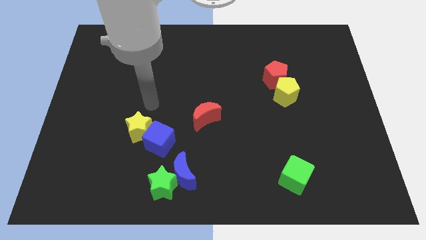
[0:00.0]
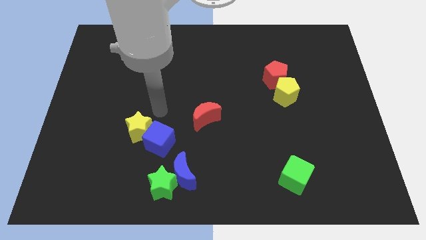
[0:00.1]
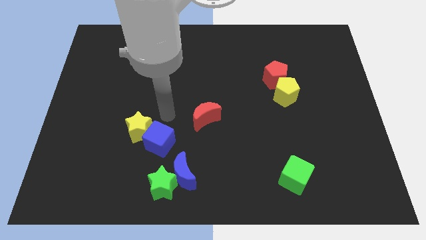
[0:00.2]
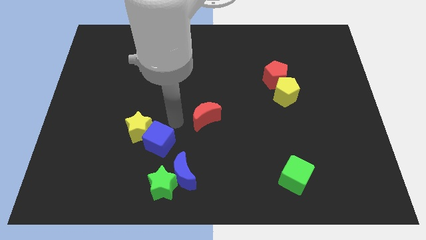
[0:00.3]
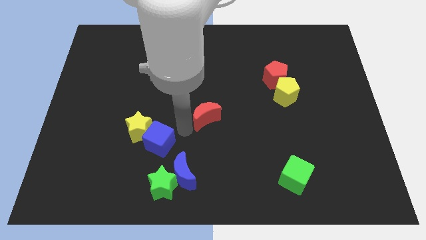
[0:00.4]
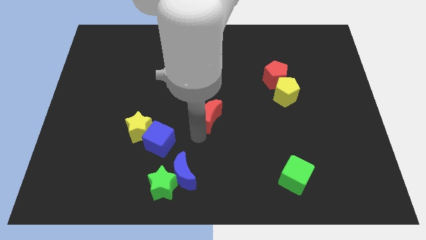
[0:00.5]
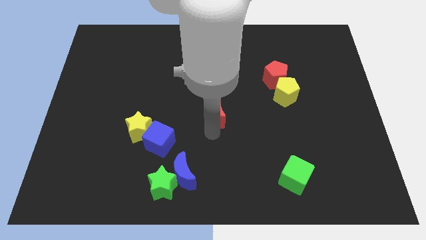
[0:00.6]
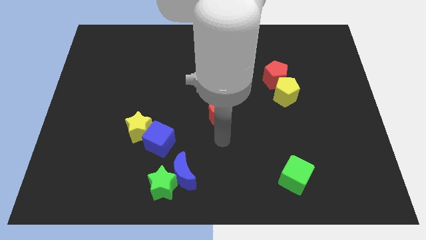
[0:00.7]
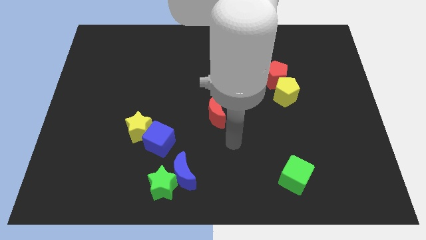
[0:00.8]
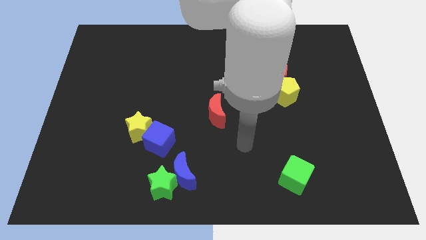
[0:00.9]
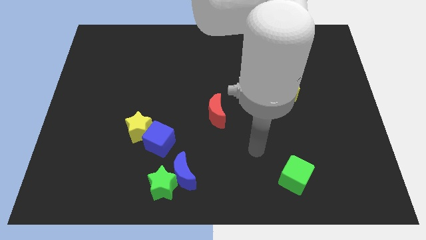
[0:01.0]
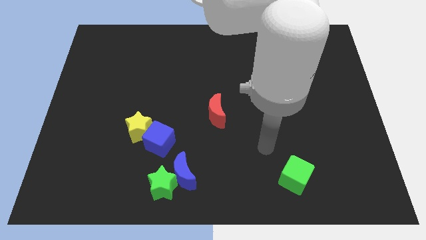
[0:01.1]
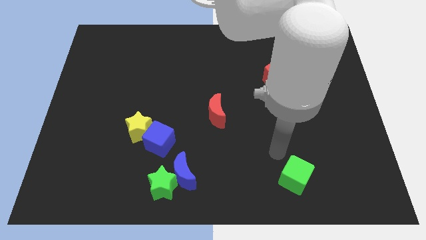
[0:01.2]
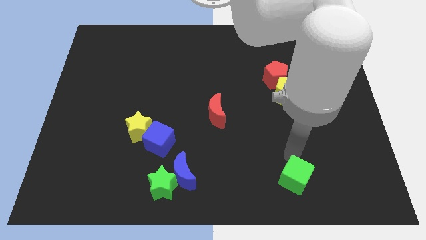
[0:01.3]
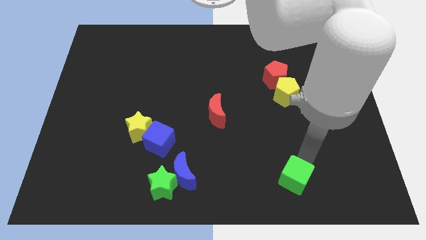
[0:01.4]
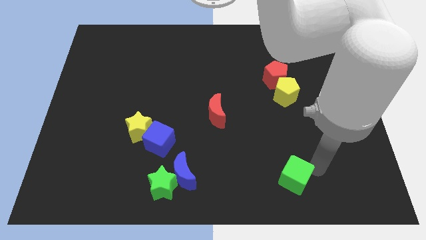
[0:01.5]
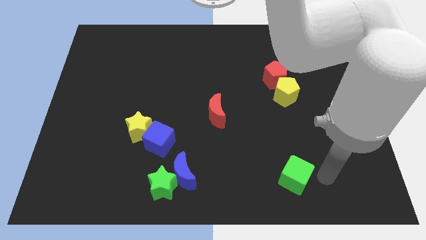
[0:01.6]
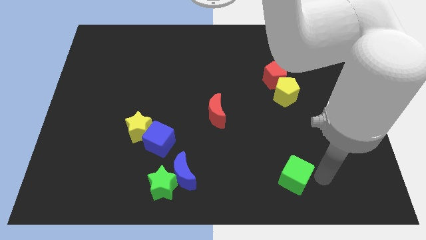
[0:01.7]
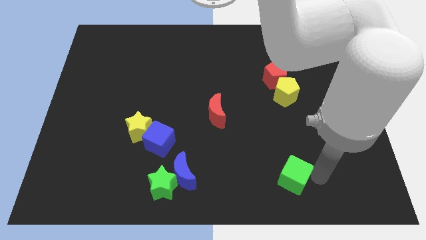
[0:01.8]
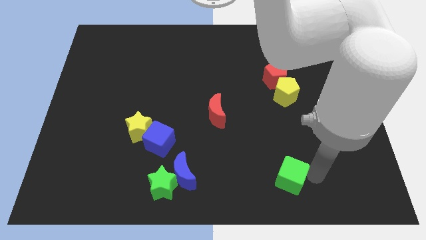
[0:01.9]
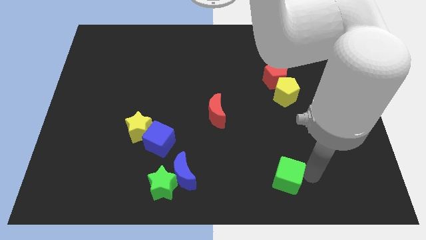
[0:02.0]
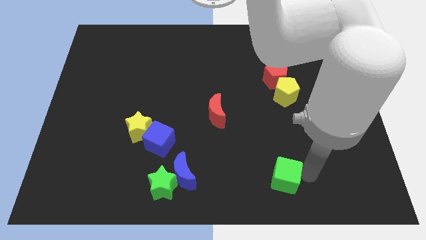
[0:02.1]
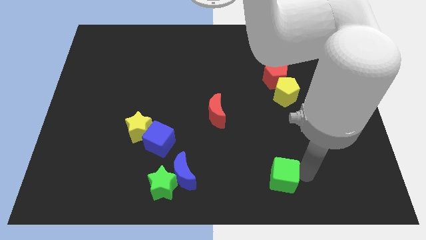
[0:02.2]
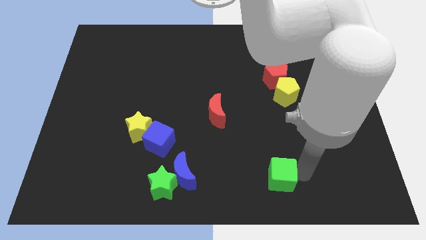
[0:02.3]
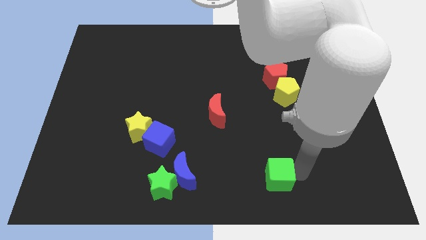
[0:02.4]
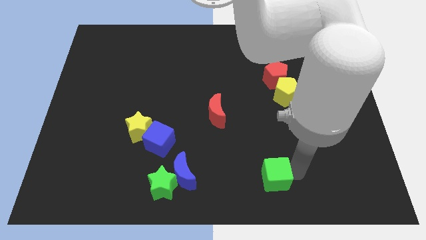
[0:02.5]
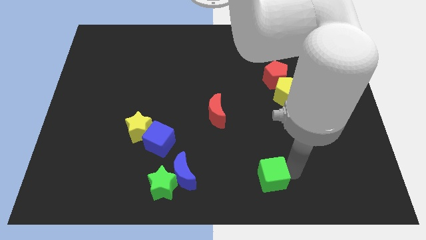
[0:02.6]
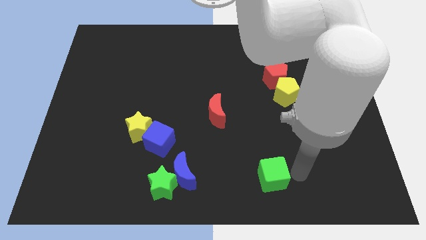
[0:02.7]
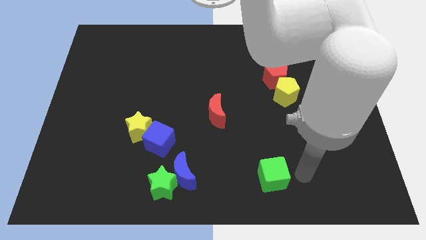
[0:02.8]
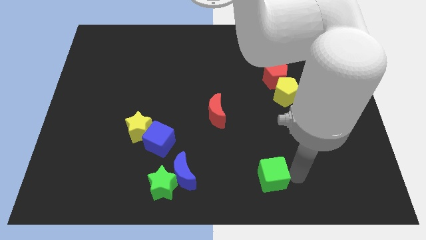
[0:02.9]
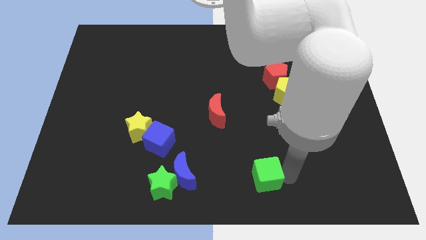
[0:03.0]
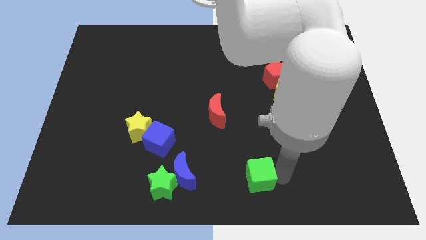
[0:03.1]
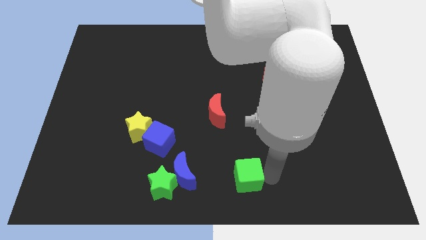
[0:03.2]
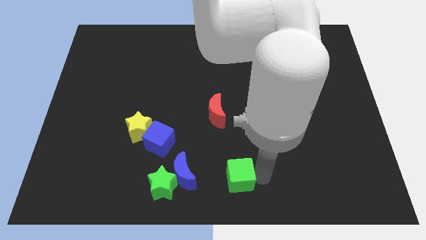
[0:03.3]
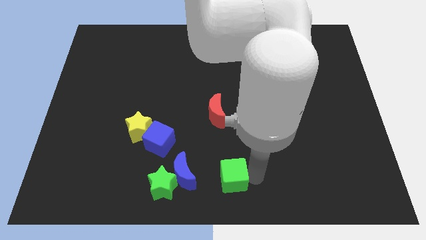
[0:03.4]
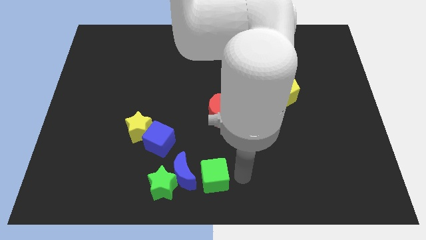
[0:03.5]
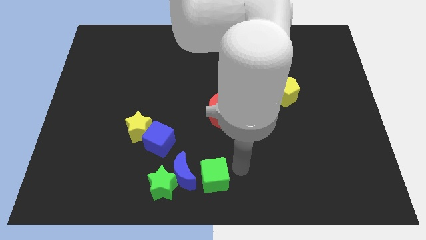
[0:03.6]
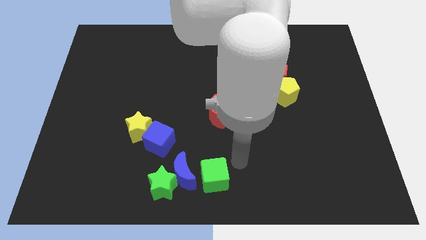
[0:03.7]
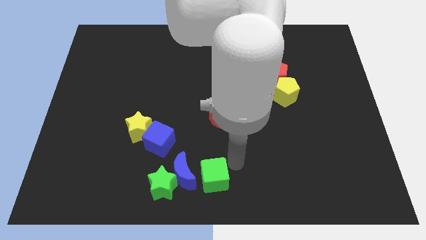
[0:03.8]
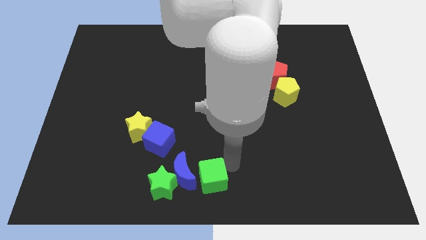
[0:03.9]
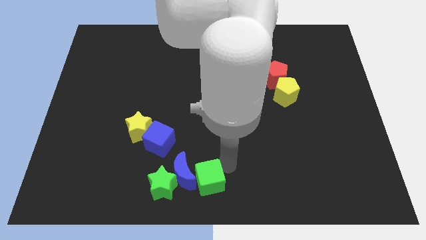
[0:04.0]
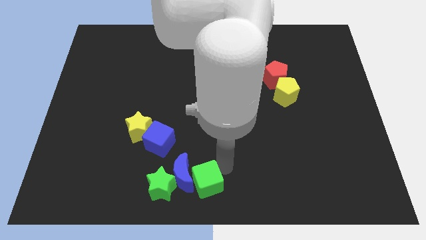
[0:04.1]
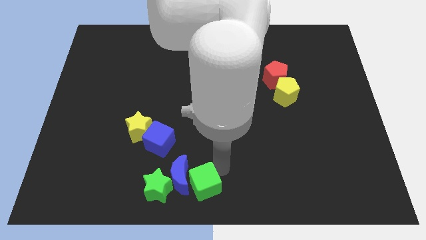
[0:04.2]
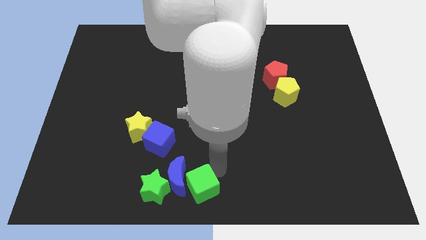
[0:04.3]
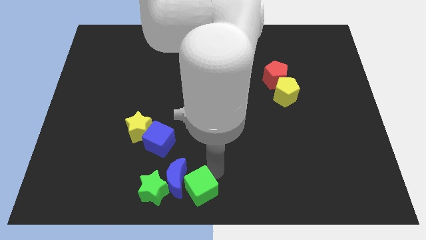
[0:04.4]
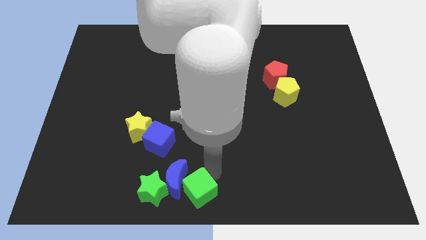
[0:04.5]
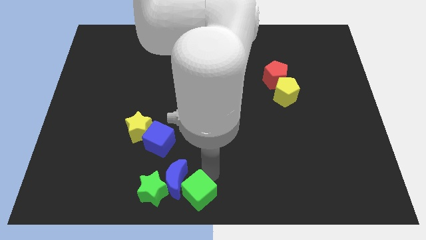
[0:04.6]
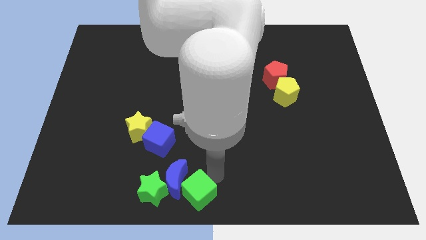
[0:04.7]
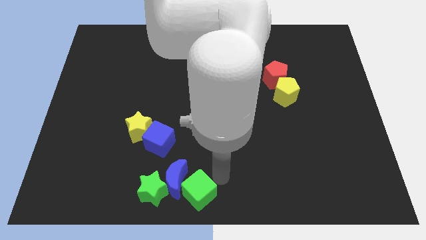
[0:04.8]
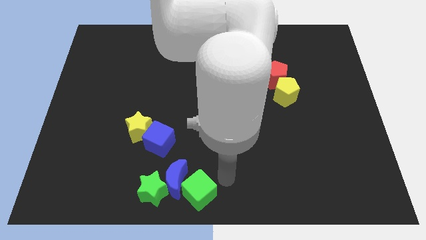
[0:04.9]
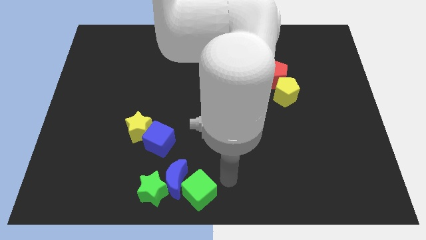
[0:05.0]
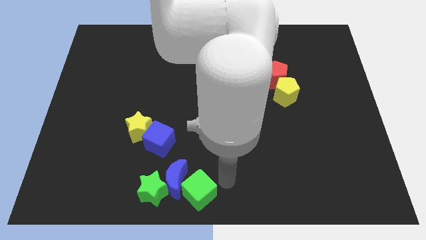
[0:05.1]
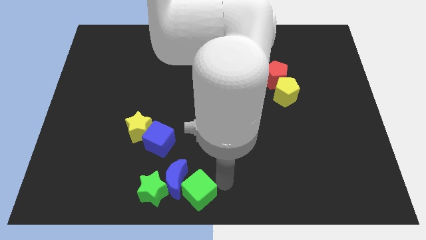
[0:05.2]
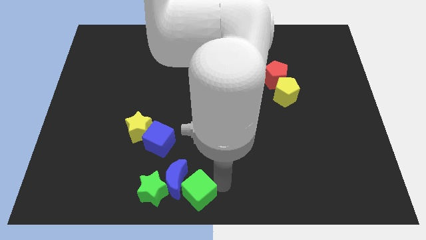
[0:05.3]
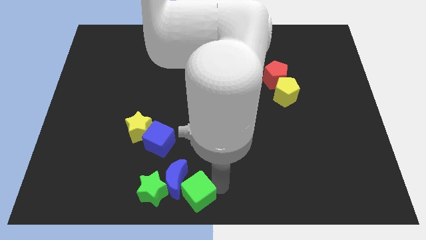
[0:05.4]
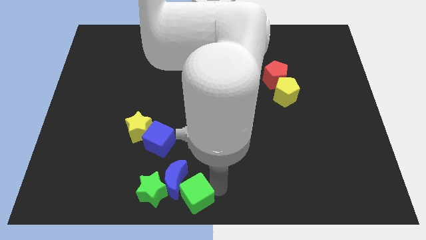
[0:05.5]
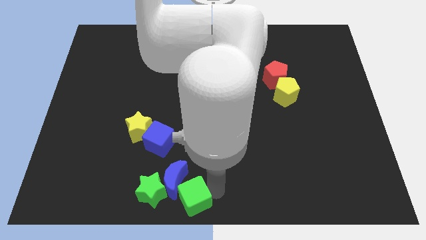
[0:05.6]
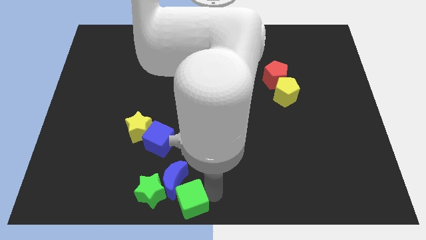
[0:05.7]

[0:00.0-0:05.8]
slide the green cube left

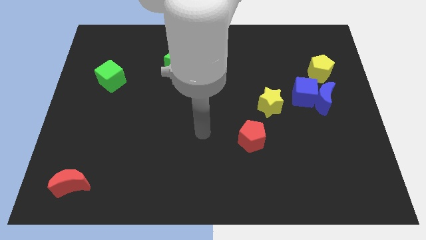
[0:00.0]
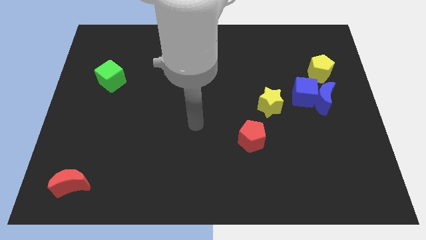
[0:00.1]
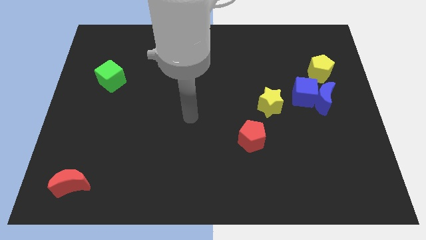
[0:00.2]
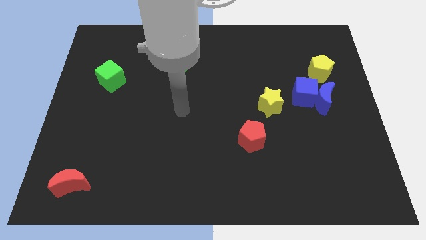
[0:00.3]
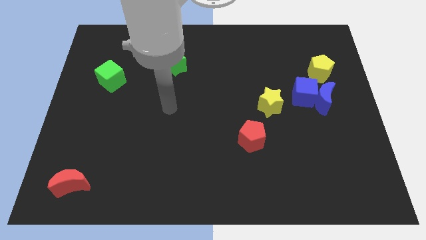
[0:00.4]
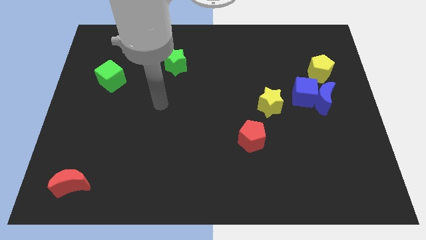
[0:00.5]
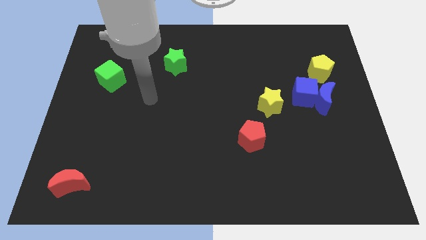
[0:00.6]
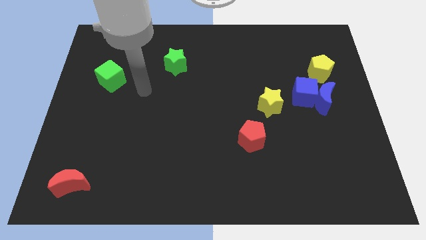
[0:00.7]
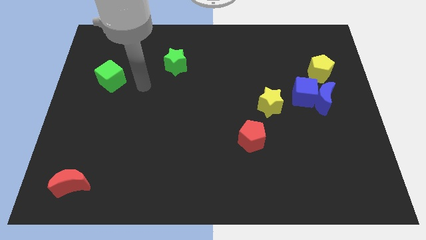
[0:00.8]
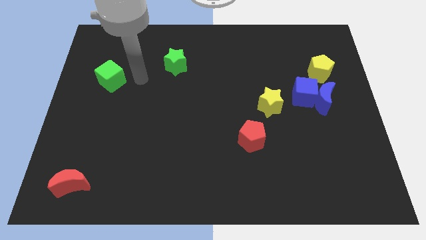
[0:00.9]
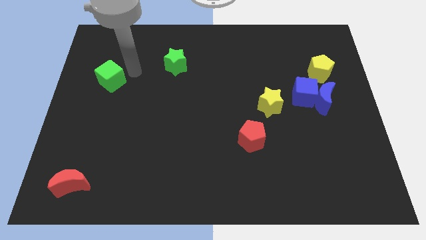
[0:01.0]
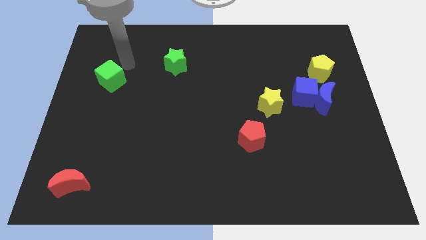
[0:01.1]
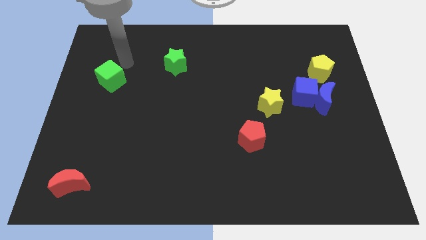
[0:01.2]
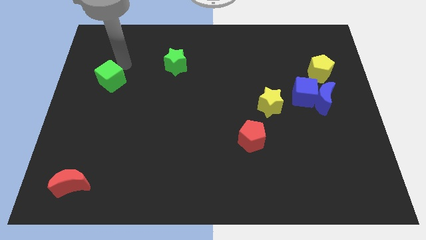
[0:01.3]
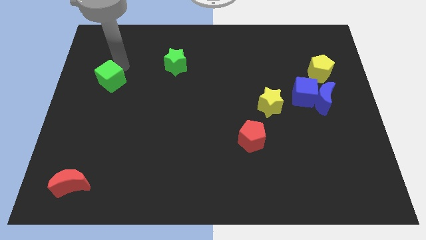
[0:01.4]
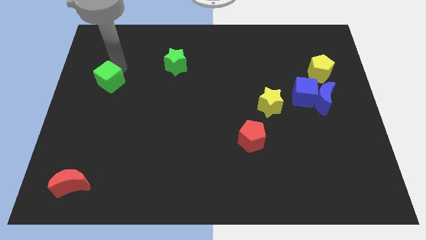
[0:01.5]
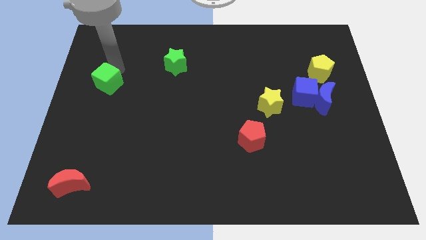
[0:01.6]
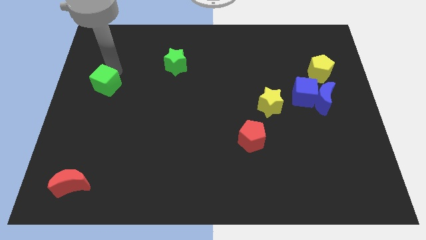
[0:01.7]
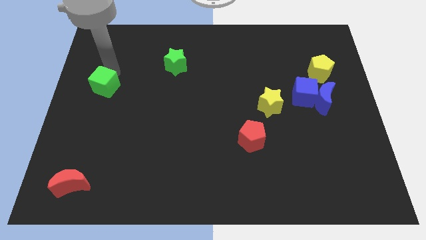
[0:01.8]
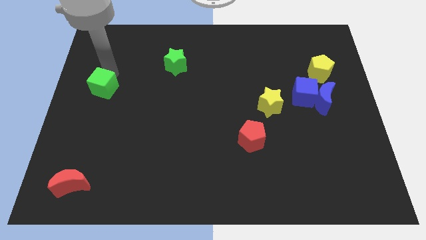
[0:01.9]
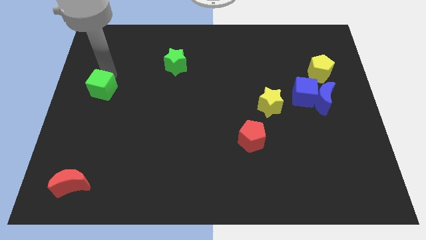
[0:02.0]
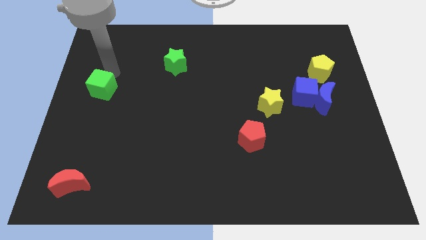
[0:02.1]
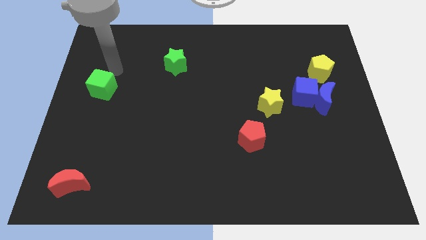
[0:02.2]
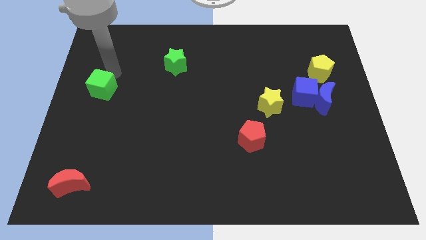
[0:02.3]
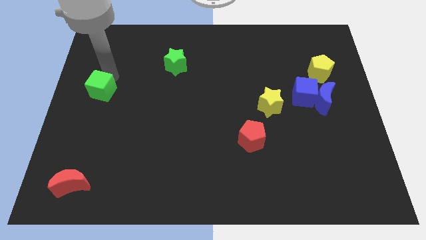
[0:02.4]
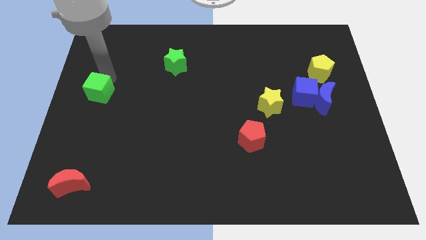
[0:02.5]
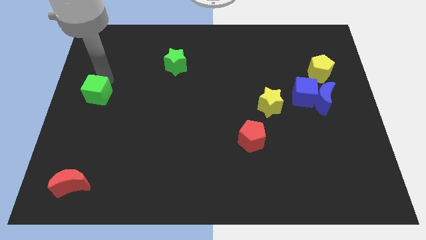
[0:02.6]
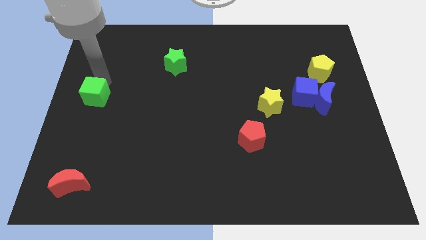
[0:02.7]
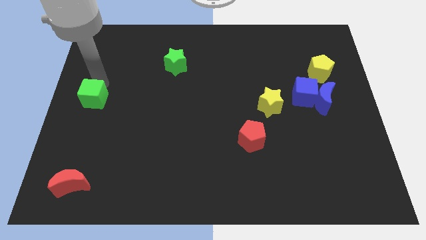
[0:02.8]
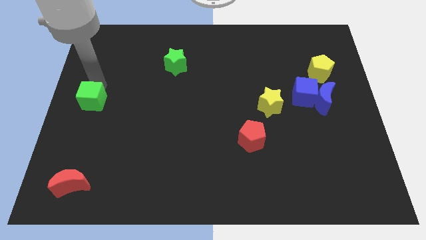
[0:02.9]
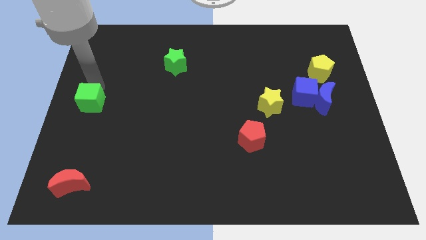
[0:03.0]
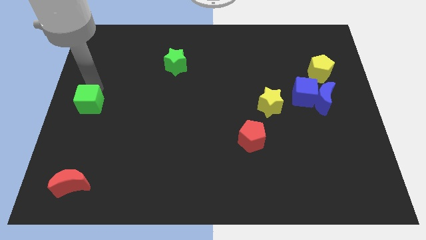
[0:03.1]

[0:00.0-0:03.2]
push the green cube somewhat downwards
